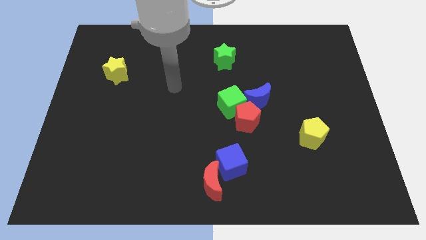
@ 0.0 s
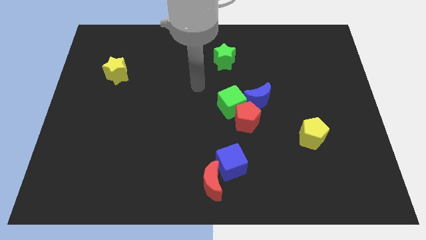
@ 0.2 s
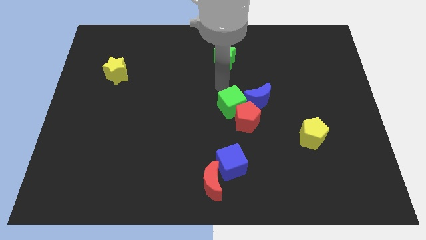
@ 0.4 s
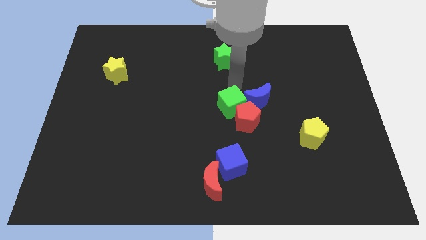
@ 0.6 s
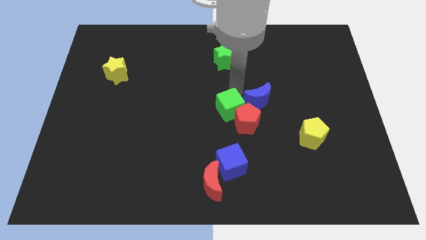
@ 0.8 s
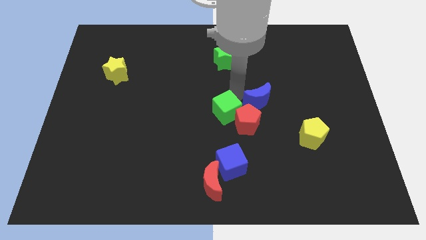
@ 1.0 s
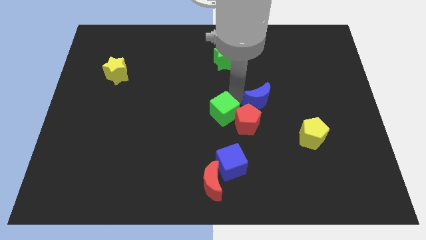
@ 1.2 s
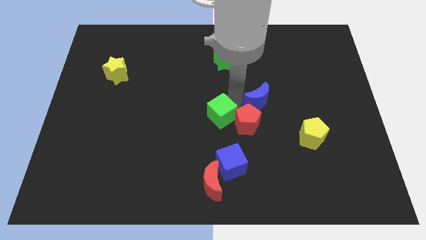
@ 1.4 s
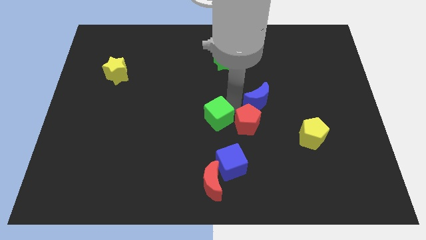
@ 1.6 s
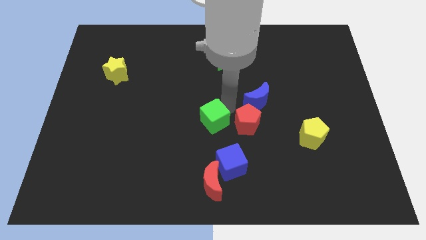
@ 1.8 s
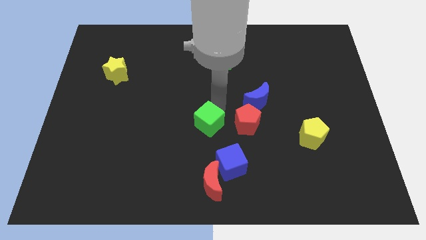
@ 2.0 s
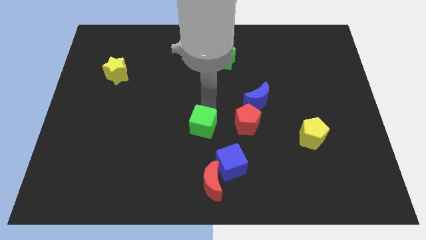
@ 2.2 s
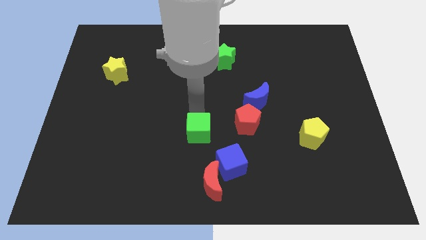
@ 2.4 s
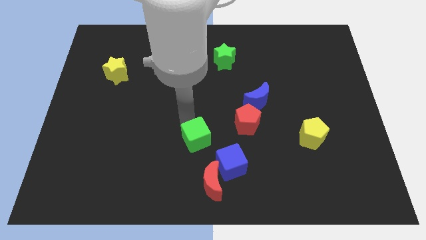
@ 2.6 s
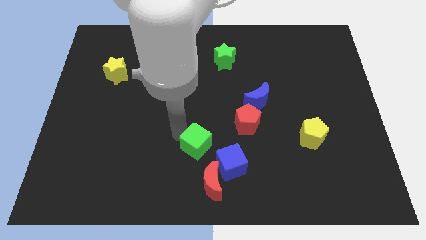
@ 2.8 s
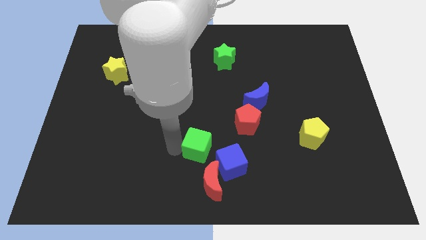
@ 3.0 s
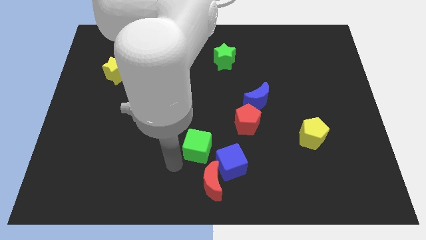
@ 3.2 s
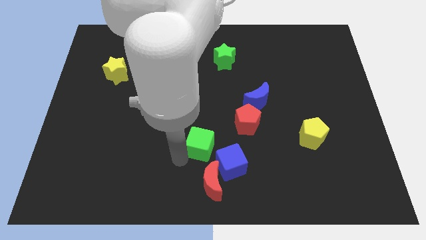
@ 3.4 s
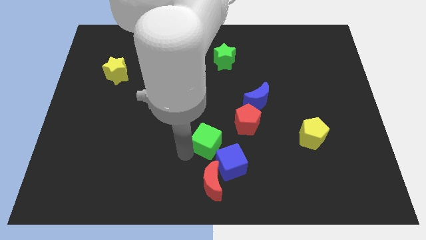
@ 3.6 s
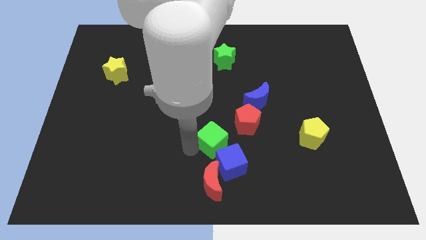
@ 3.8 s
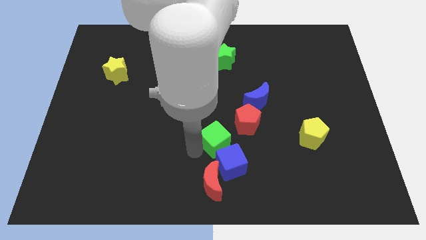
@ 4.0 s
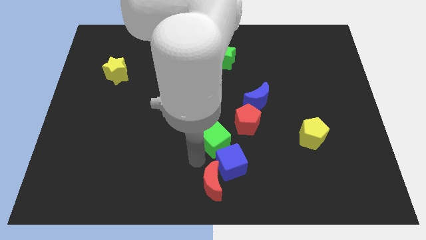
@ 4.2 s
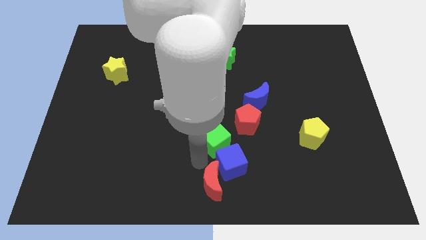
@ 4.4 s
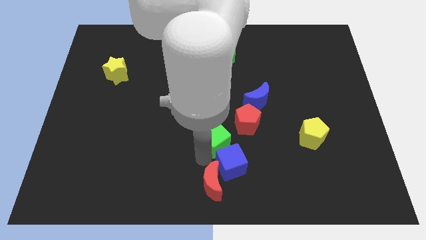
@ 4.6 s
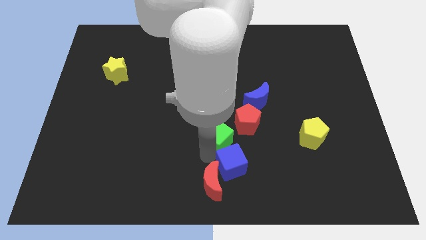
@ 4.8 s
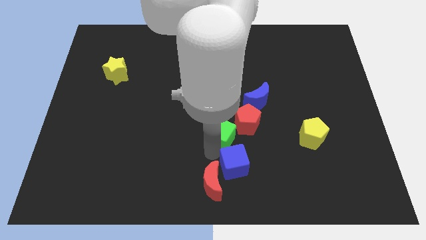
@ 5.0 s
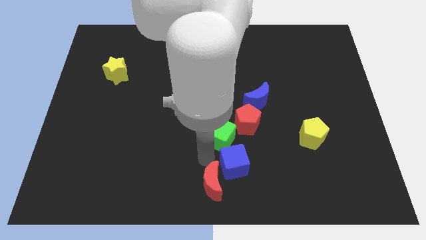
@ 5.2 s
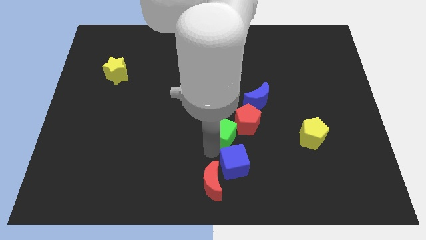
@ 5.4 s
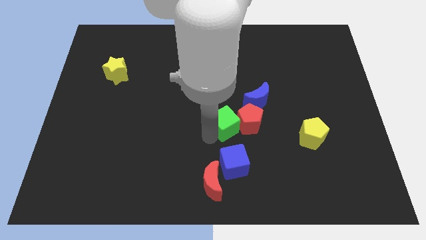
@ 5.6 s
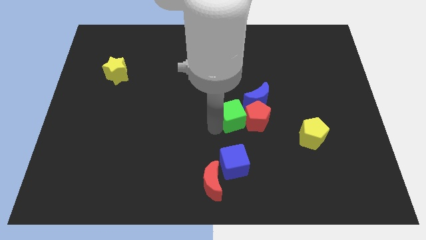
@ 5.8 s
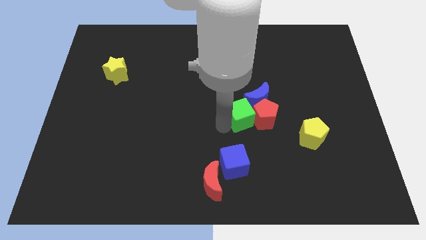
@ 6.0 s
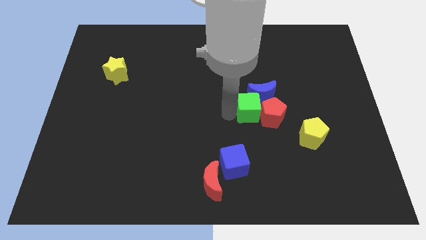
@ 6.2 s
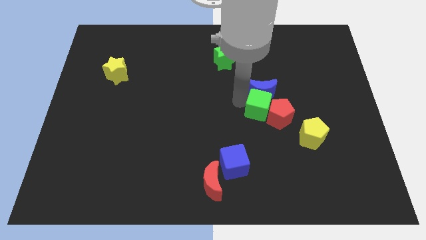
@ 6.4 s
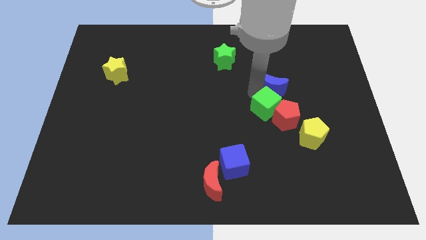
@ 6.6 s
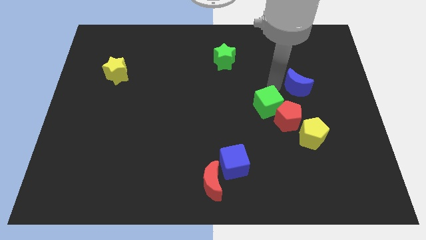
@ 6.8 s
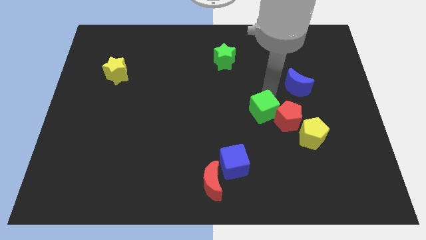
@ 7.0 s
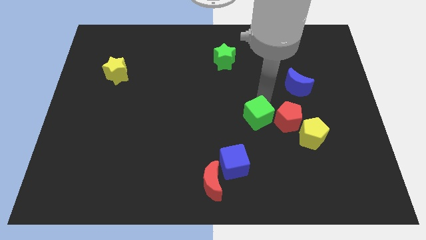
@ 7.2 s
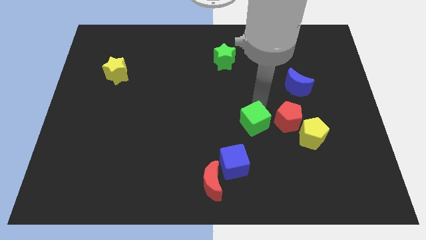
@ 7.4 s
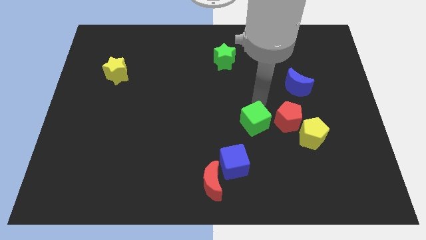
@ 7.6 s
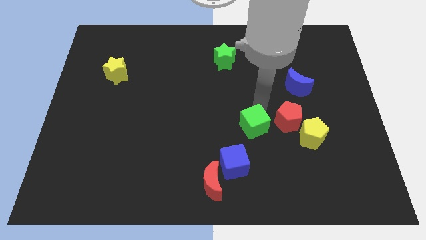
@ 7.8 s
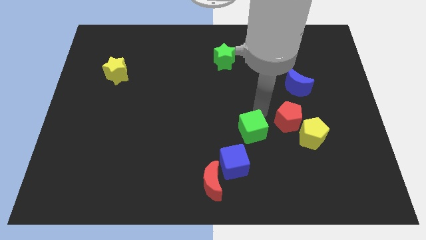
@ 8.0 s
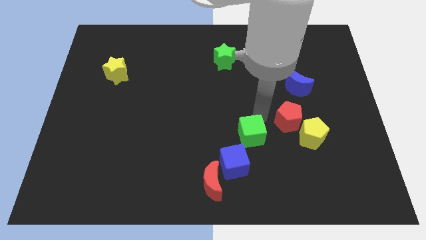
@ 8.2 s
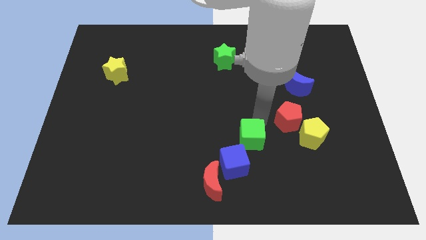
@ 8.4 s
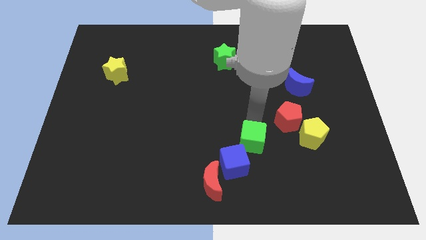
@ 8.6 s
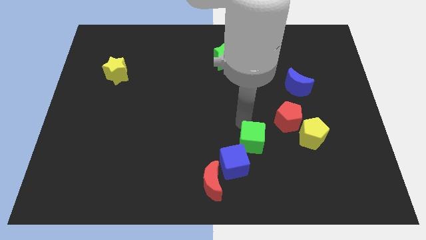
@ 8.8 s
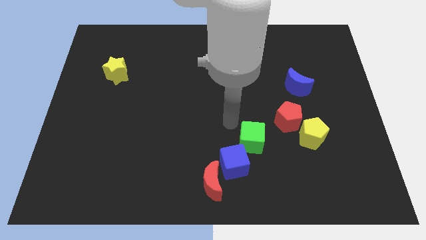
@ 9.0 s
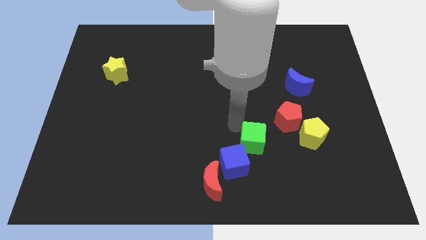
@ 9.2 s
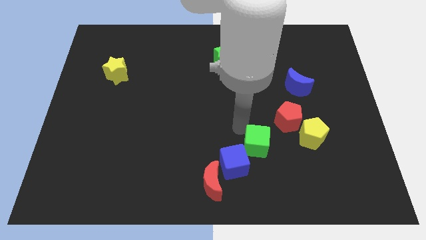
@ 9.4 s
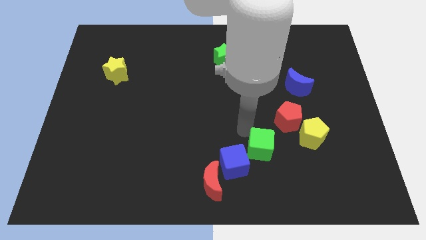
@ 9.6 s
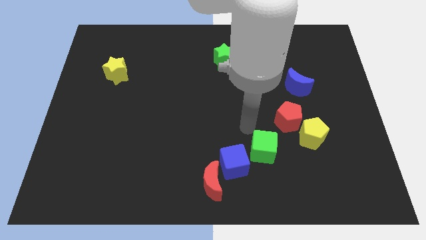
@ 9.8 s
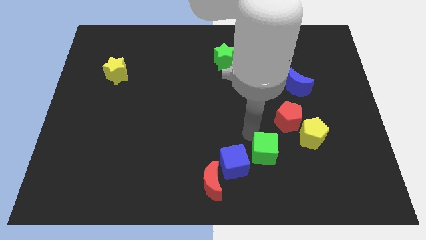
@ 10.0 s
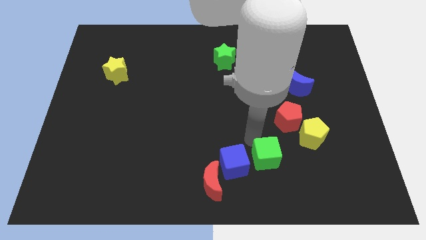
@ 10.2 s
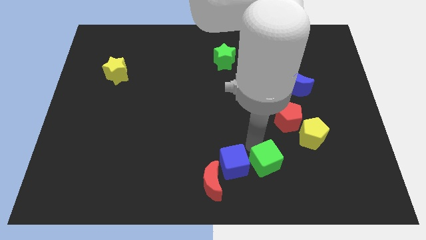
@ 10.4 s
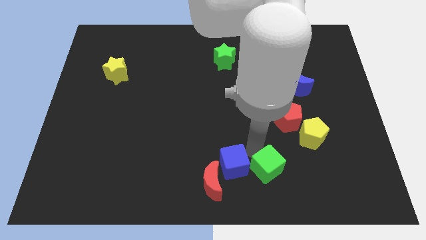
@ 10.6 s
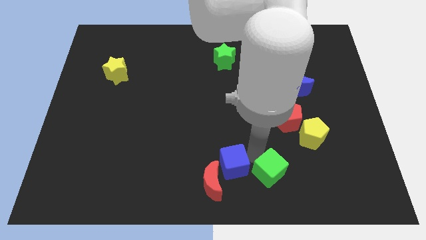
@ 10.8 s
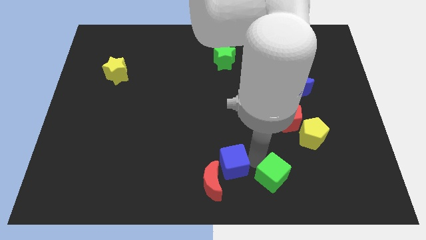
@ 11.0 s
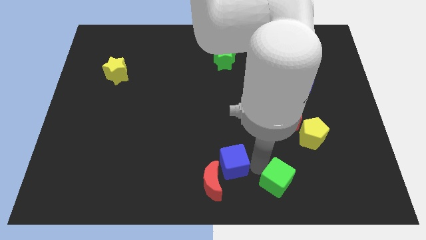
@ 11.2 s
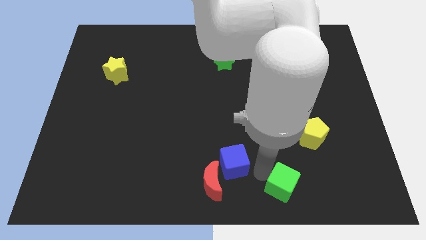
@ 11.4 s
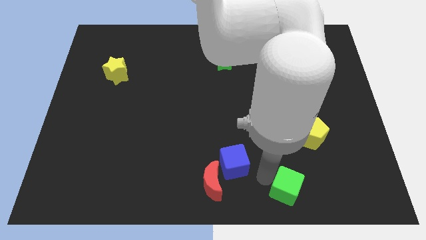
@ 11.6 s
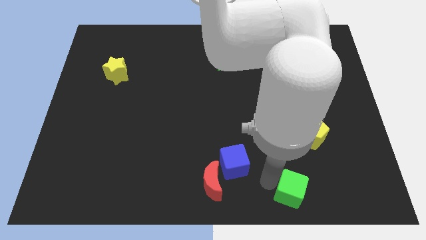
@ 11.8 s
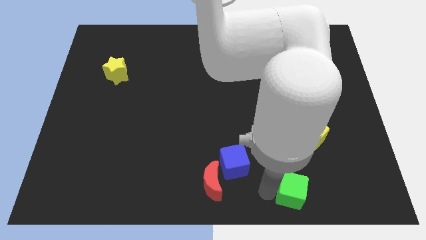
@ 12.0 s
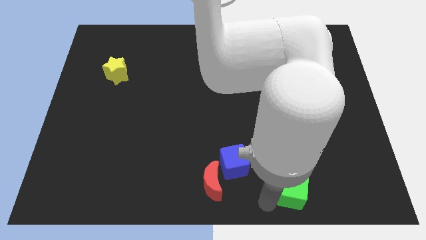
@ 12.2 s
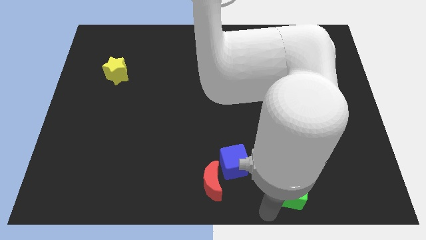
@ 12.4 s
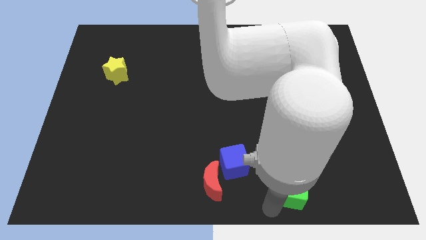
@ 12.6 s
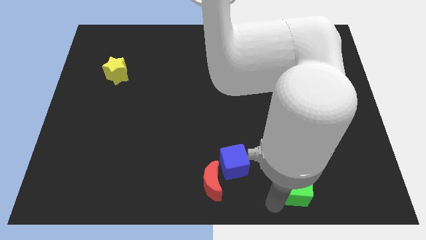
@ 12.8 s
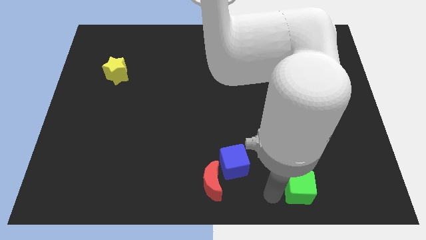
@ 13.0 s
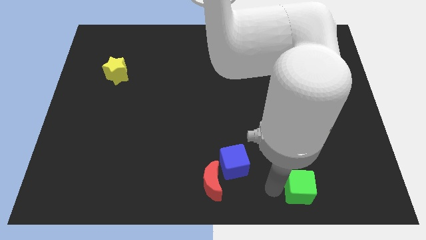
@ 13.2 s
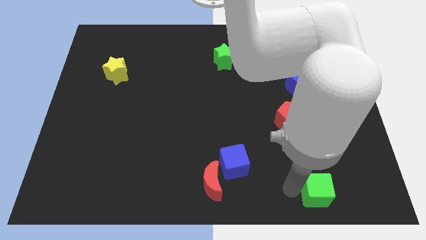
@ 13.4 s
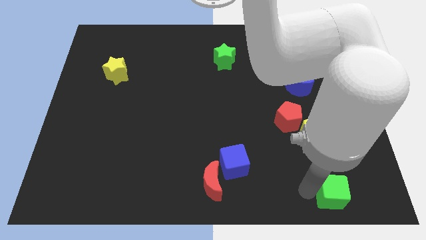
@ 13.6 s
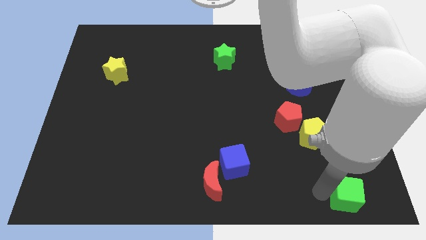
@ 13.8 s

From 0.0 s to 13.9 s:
move the green cube to the bottom right
